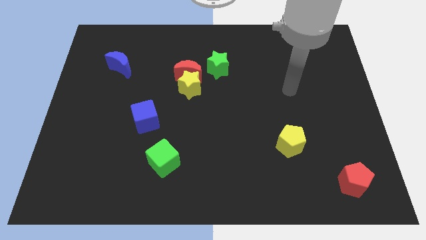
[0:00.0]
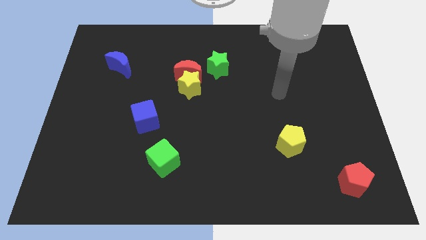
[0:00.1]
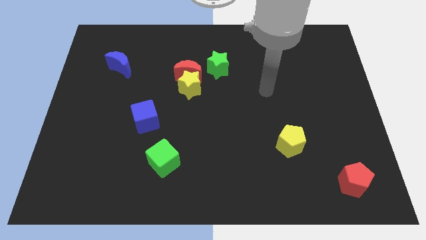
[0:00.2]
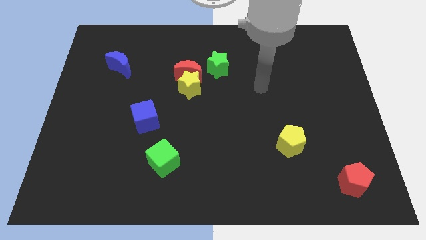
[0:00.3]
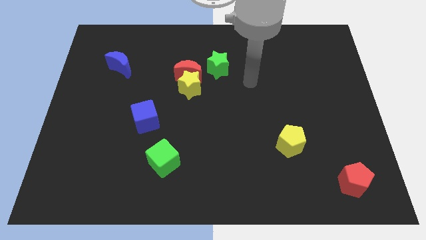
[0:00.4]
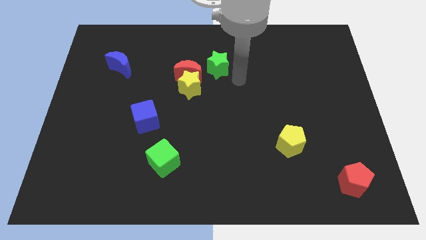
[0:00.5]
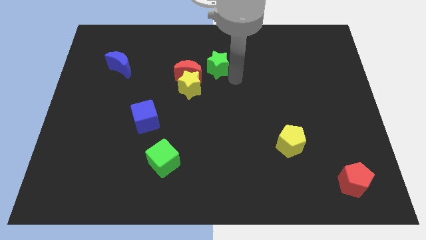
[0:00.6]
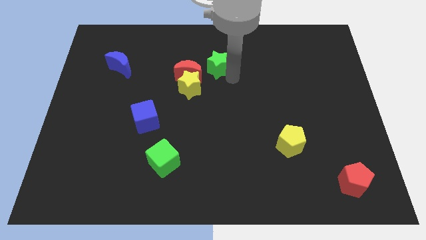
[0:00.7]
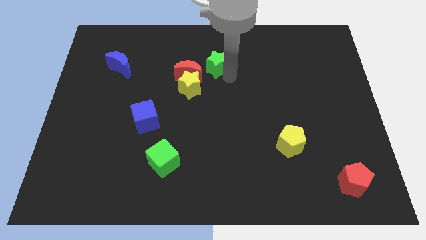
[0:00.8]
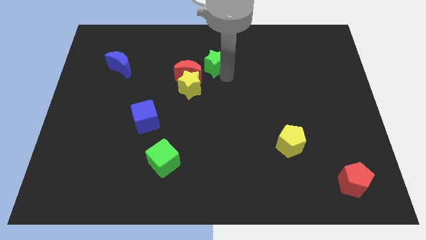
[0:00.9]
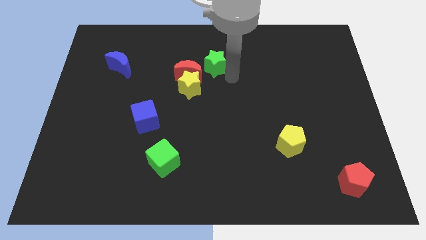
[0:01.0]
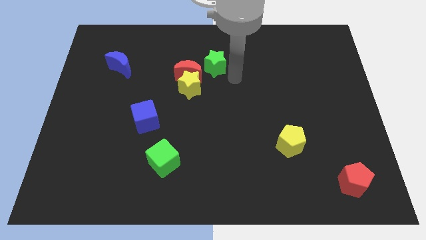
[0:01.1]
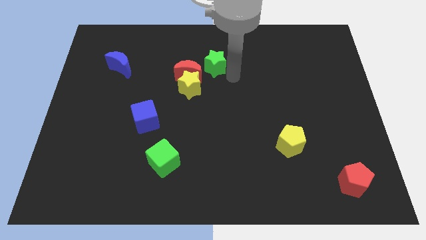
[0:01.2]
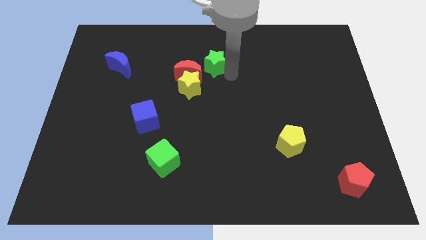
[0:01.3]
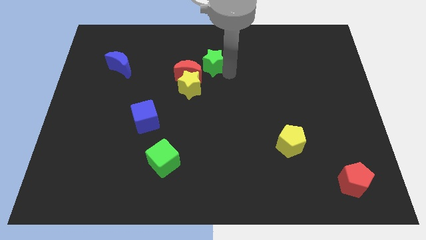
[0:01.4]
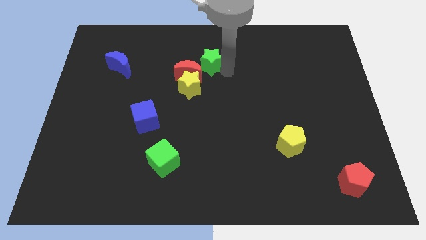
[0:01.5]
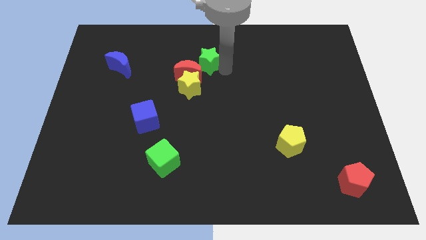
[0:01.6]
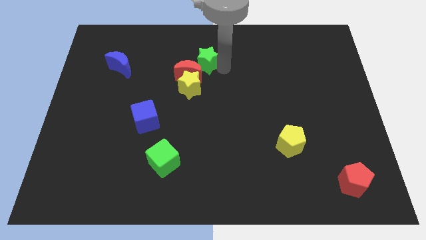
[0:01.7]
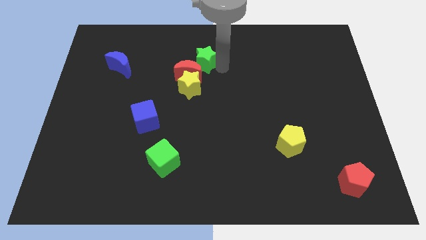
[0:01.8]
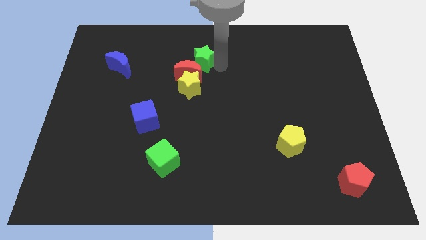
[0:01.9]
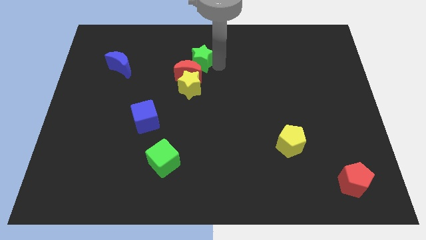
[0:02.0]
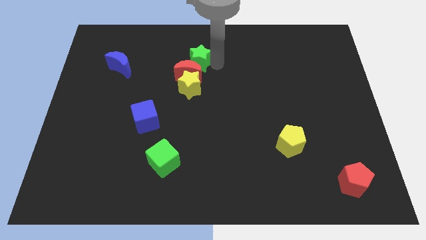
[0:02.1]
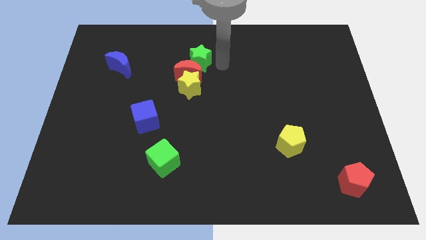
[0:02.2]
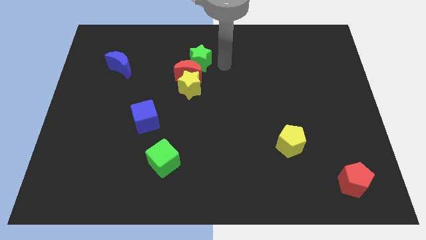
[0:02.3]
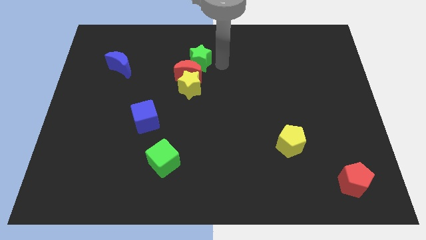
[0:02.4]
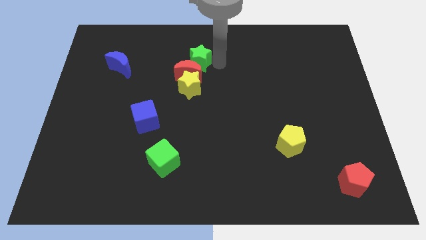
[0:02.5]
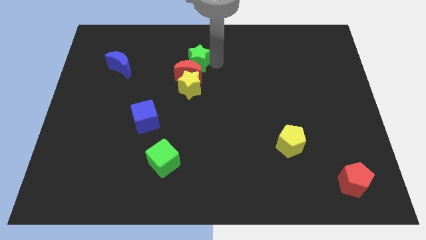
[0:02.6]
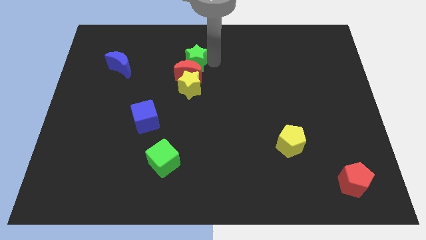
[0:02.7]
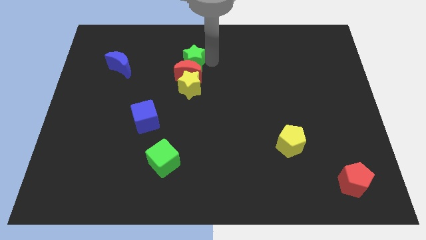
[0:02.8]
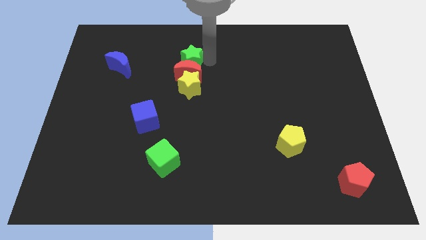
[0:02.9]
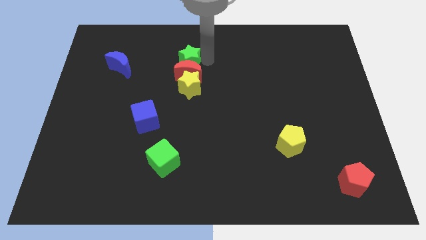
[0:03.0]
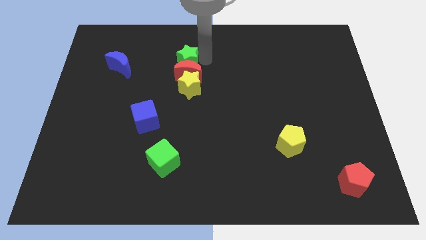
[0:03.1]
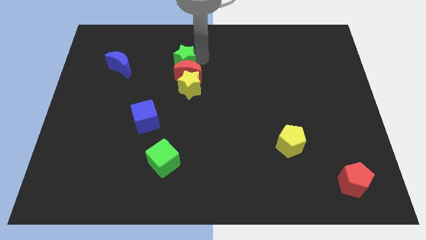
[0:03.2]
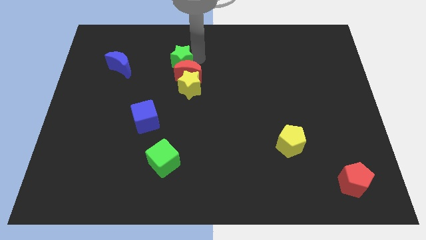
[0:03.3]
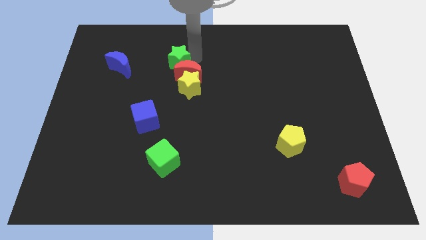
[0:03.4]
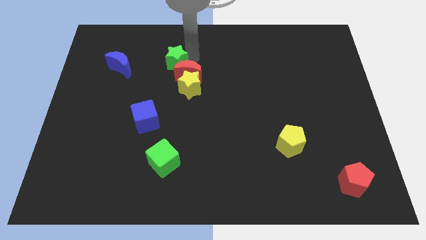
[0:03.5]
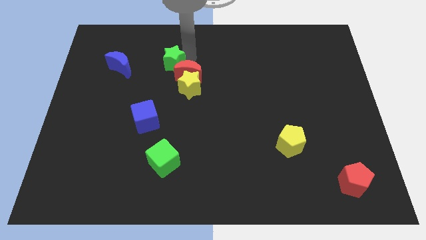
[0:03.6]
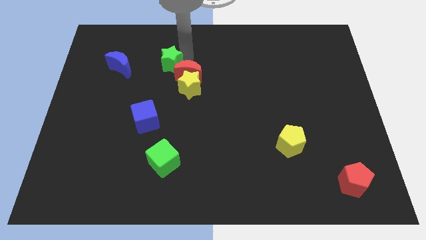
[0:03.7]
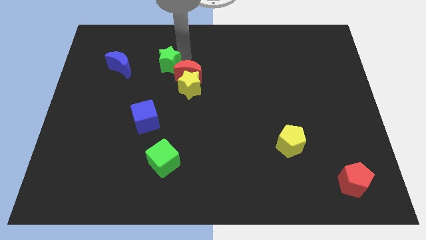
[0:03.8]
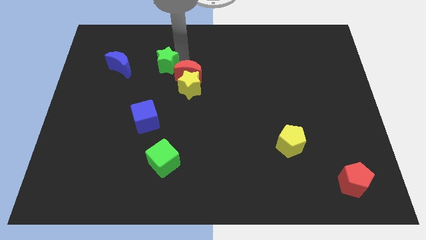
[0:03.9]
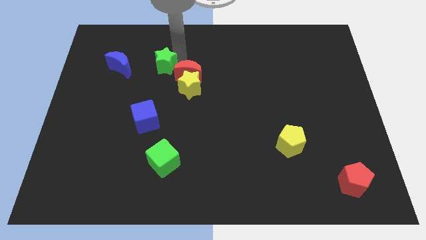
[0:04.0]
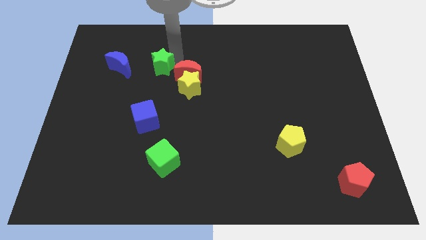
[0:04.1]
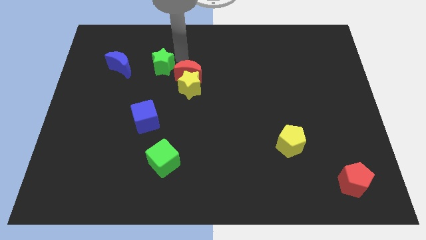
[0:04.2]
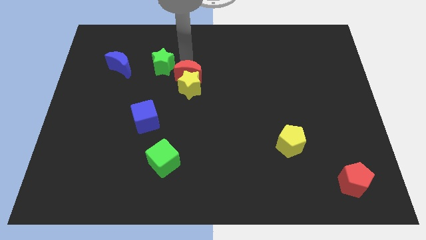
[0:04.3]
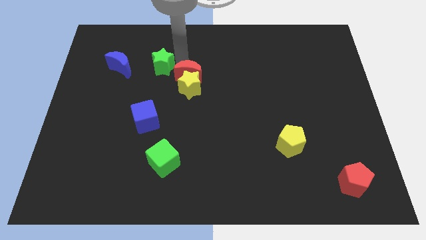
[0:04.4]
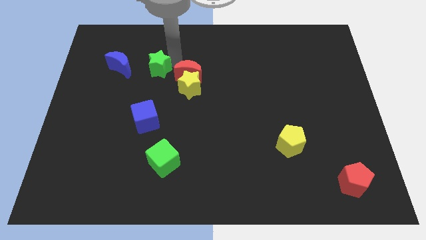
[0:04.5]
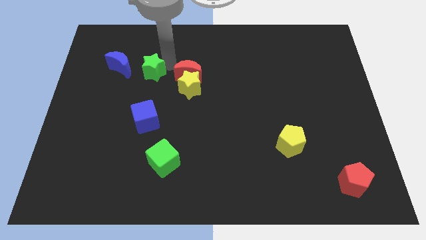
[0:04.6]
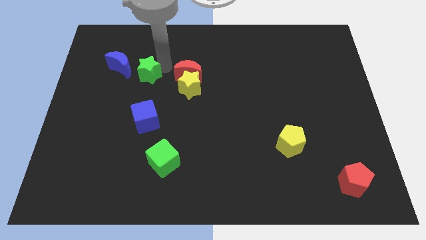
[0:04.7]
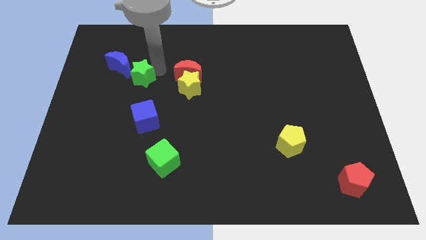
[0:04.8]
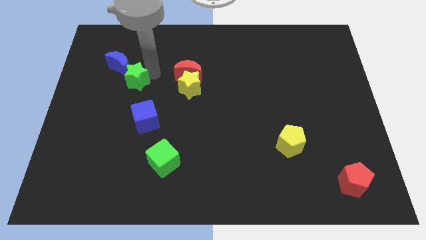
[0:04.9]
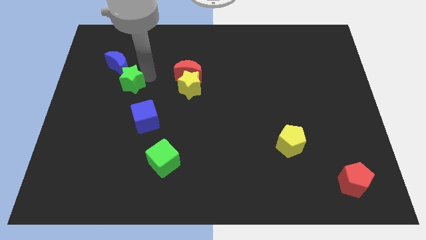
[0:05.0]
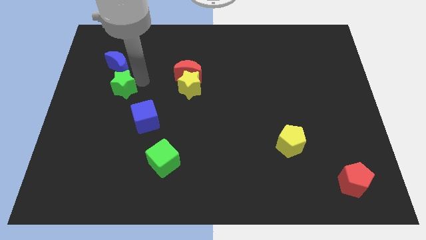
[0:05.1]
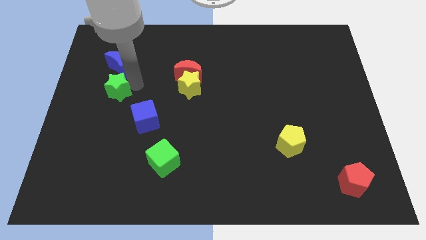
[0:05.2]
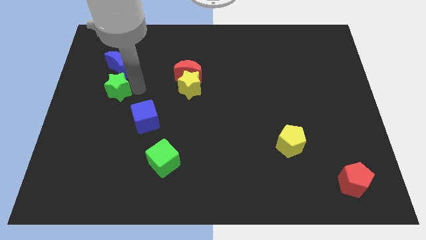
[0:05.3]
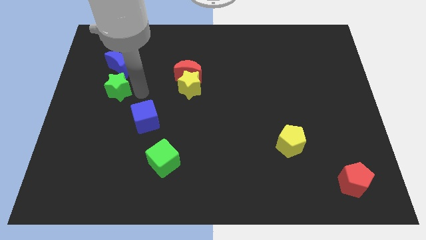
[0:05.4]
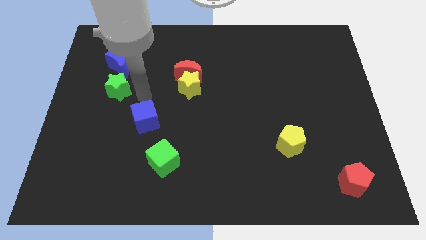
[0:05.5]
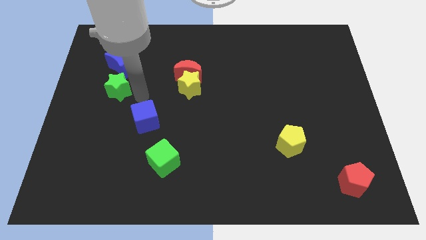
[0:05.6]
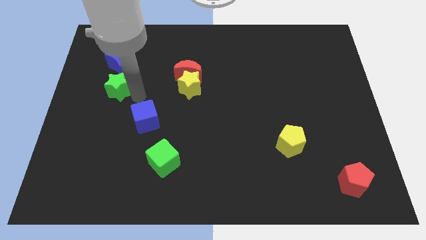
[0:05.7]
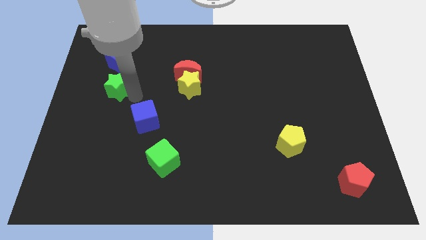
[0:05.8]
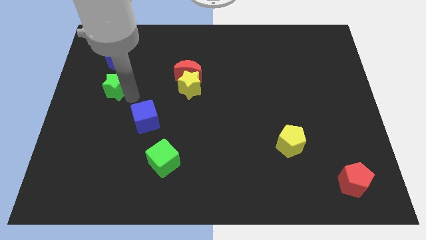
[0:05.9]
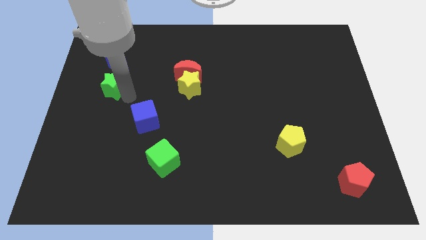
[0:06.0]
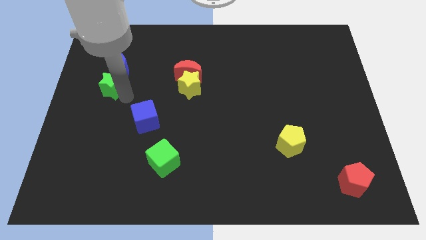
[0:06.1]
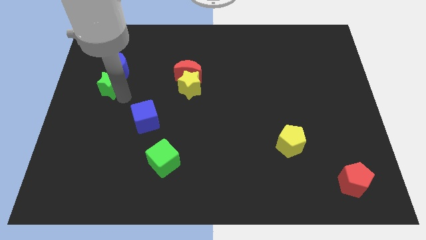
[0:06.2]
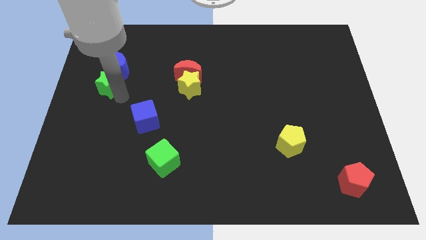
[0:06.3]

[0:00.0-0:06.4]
move the green star to the left side of the board
